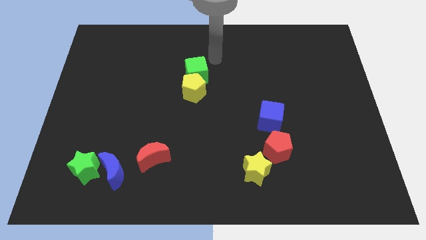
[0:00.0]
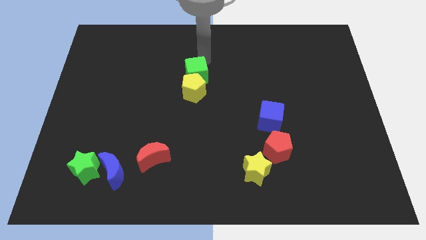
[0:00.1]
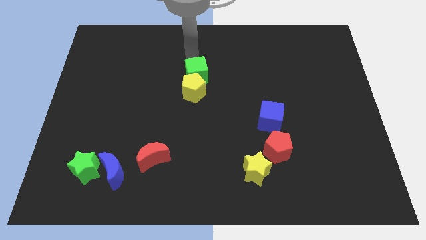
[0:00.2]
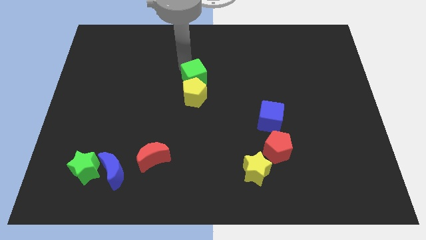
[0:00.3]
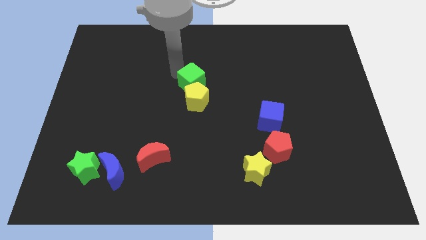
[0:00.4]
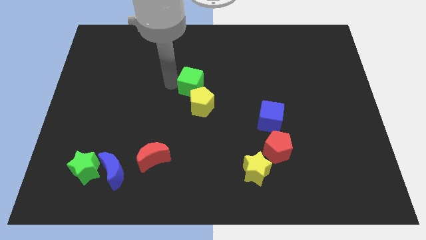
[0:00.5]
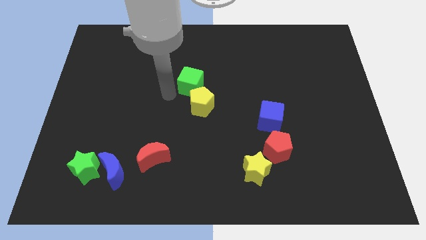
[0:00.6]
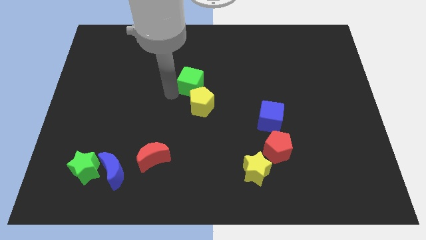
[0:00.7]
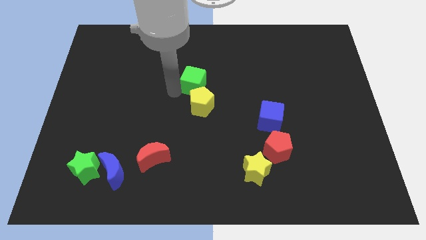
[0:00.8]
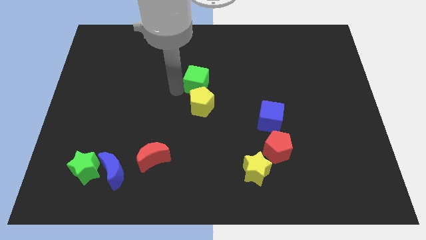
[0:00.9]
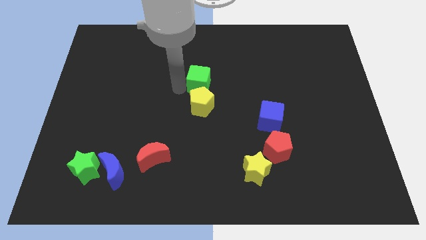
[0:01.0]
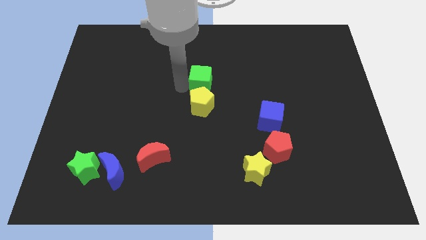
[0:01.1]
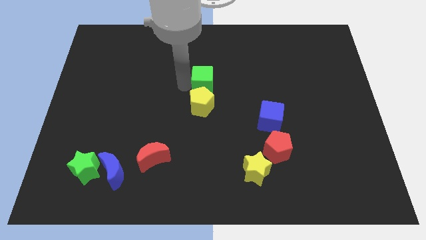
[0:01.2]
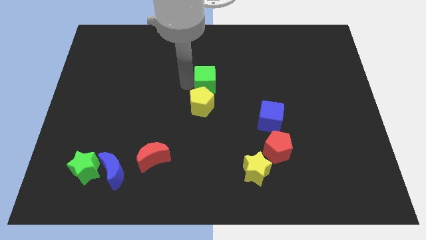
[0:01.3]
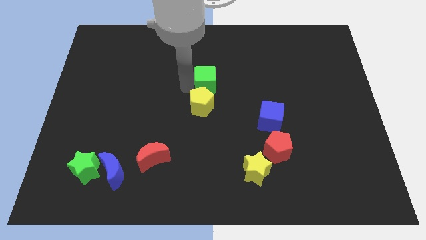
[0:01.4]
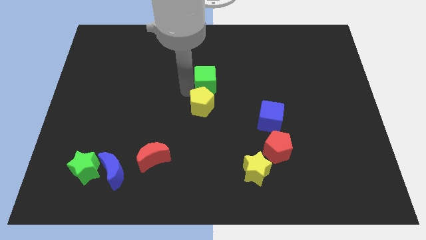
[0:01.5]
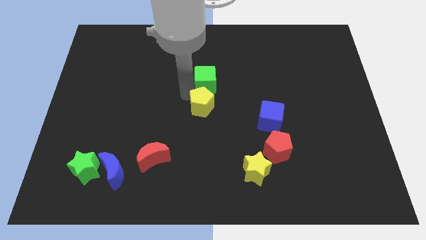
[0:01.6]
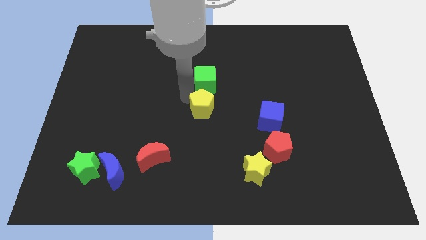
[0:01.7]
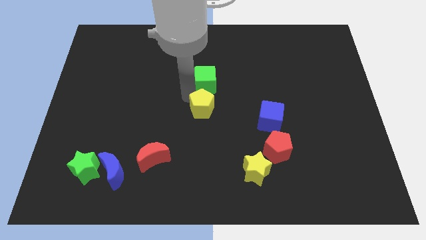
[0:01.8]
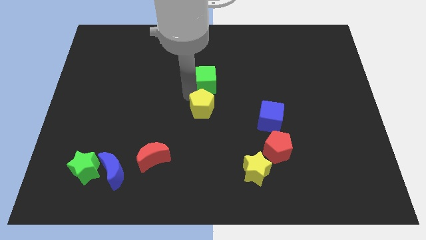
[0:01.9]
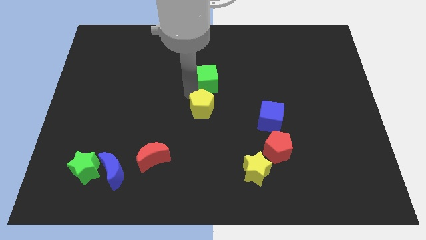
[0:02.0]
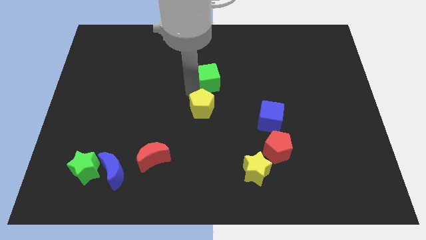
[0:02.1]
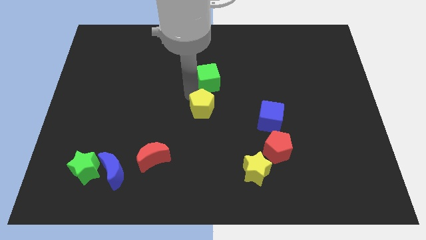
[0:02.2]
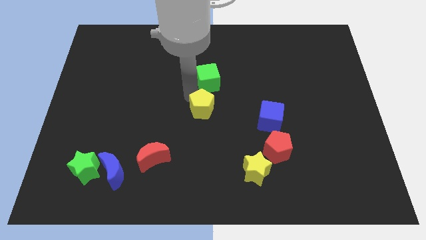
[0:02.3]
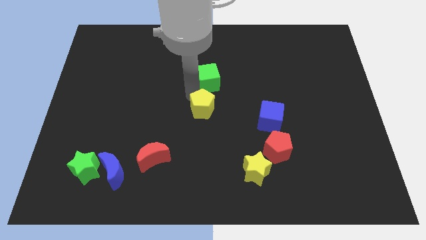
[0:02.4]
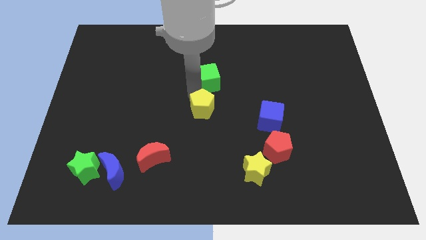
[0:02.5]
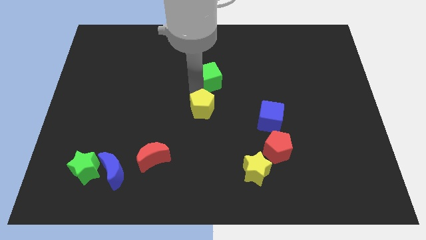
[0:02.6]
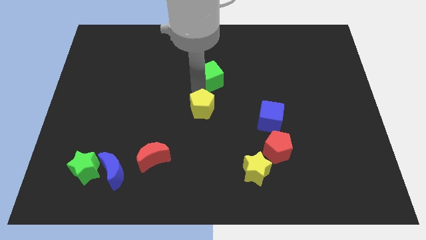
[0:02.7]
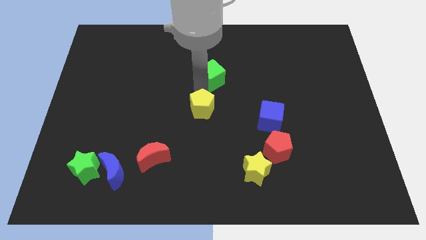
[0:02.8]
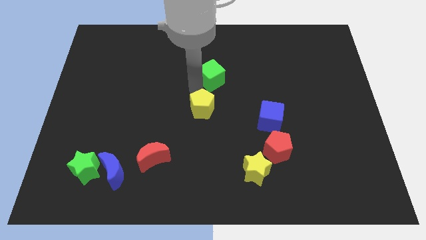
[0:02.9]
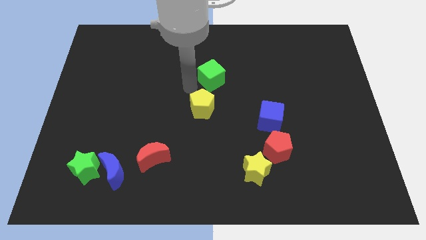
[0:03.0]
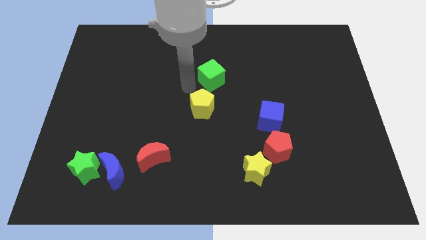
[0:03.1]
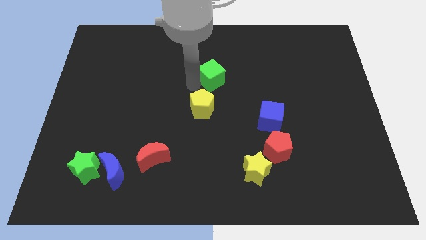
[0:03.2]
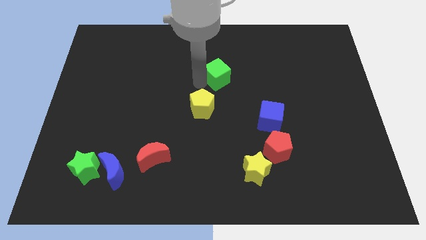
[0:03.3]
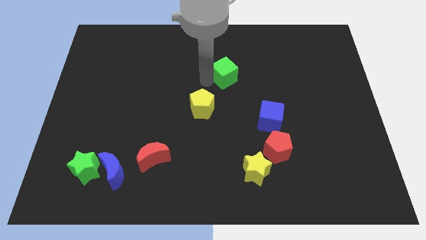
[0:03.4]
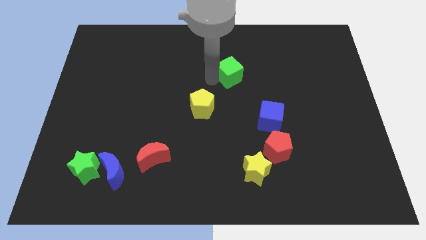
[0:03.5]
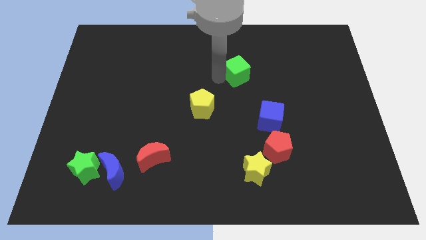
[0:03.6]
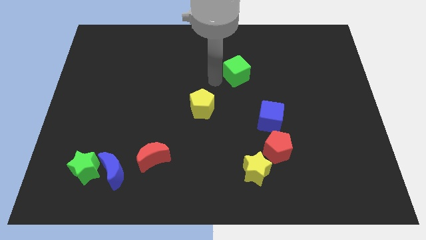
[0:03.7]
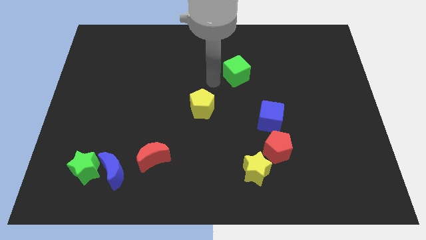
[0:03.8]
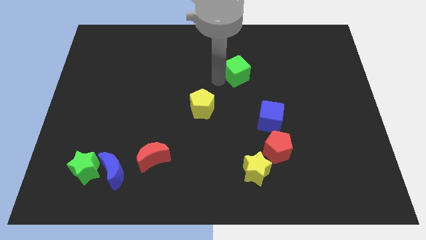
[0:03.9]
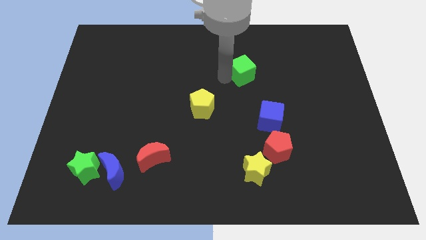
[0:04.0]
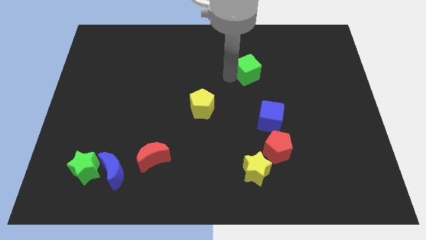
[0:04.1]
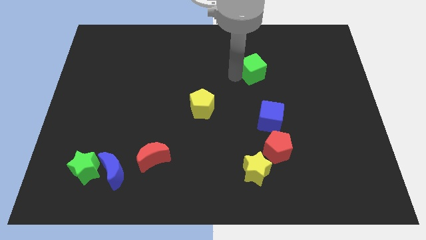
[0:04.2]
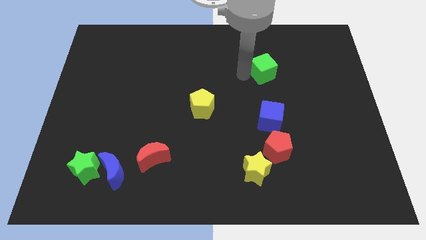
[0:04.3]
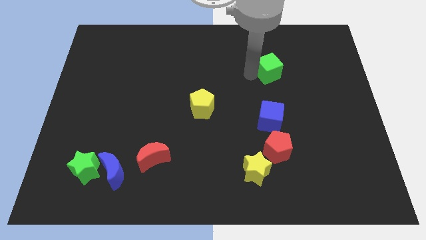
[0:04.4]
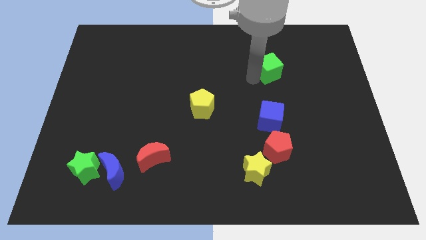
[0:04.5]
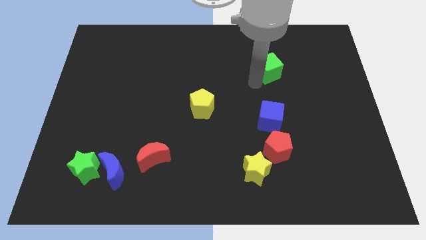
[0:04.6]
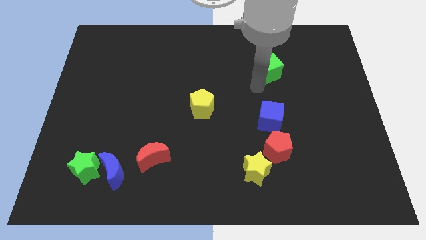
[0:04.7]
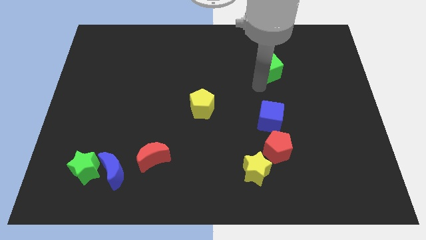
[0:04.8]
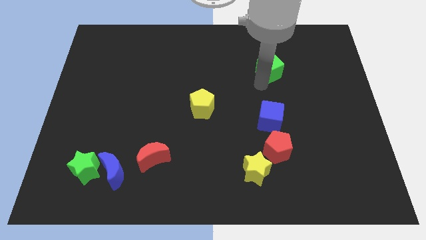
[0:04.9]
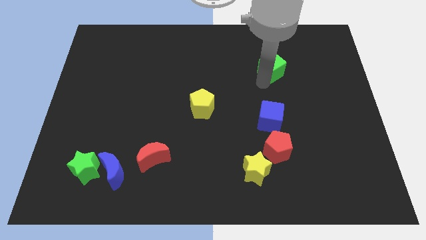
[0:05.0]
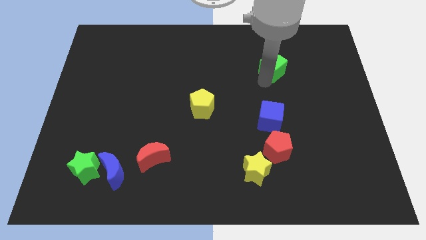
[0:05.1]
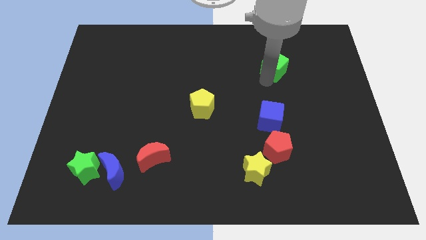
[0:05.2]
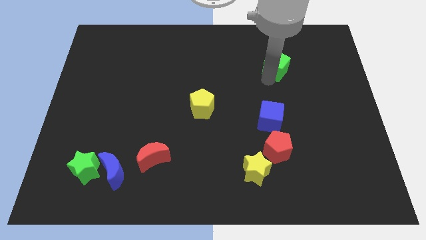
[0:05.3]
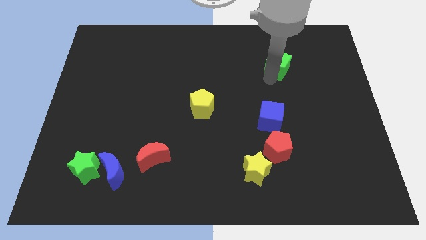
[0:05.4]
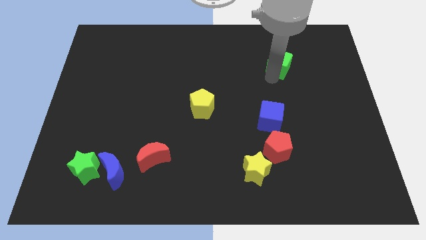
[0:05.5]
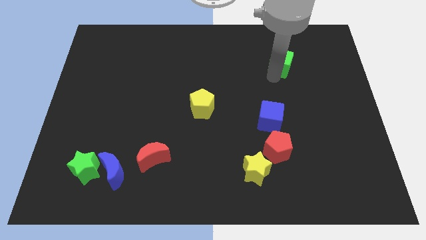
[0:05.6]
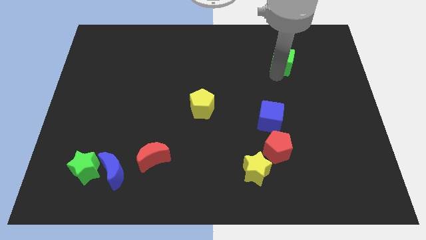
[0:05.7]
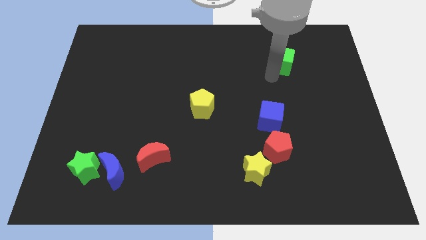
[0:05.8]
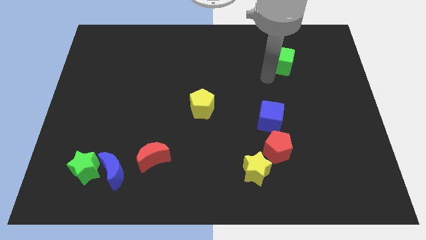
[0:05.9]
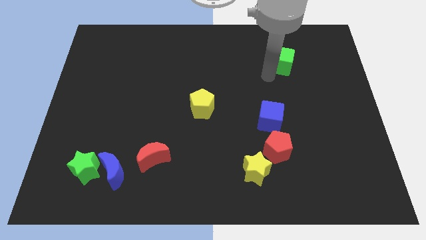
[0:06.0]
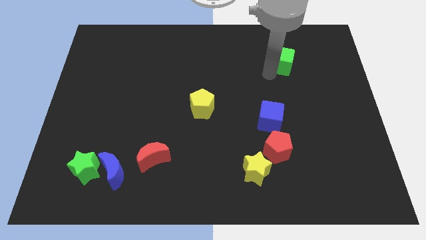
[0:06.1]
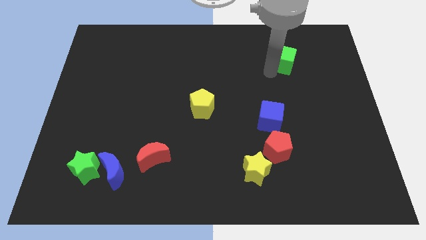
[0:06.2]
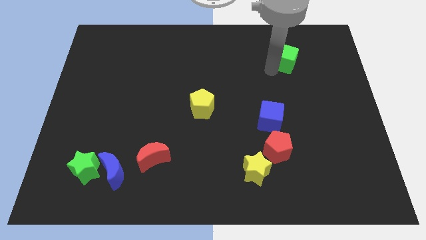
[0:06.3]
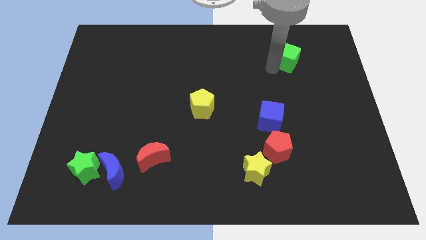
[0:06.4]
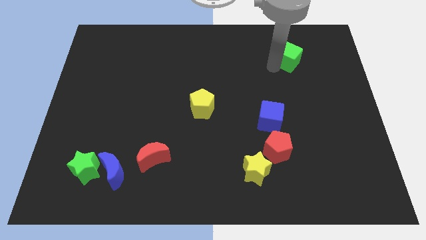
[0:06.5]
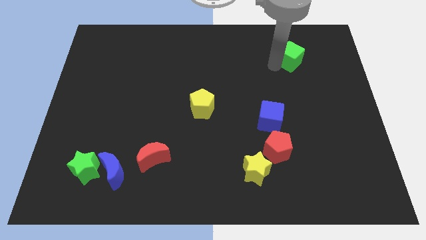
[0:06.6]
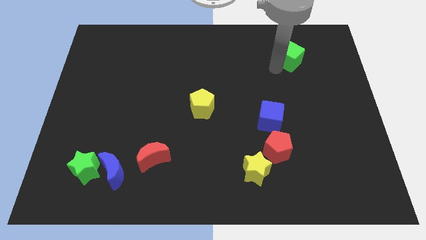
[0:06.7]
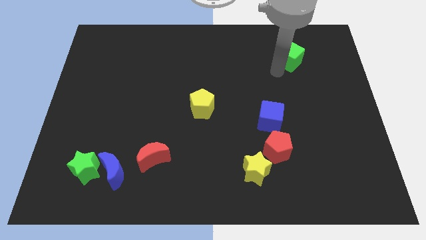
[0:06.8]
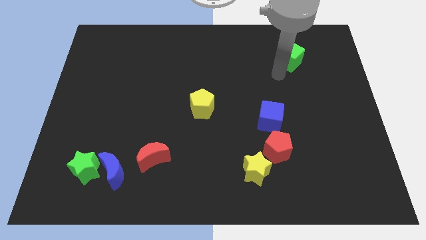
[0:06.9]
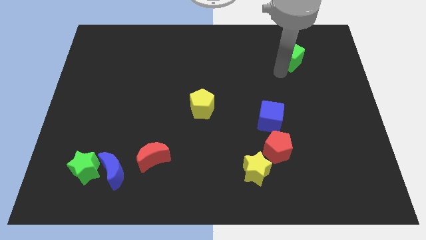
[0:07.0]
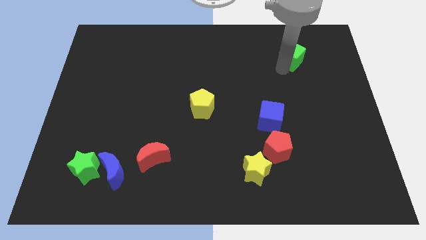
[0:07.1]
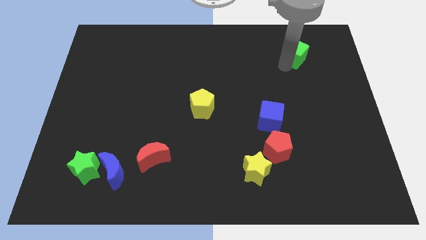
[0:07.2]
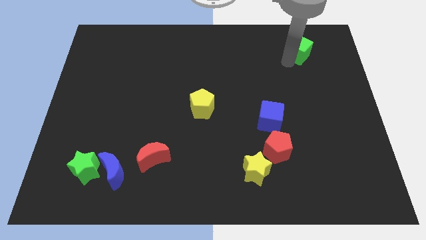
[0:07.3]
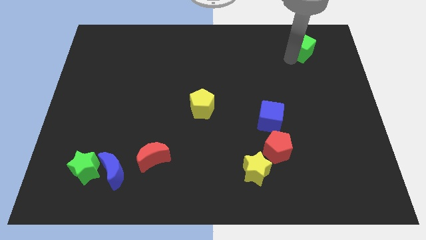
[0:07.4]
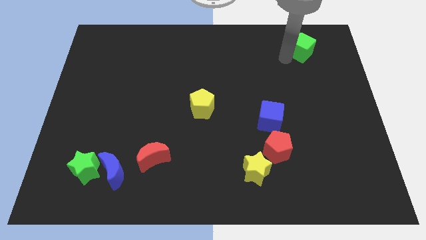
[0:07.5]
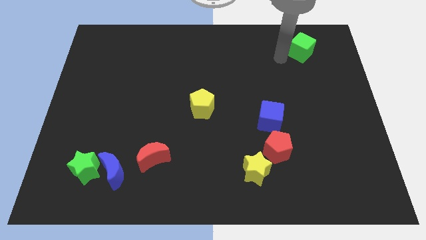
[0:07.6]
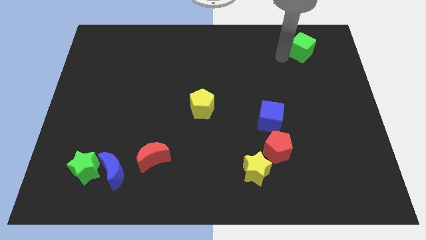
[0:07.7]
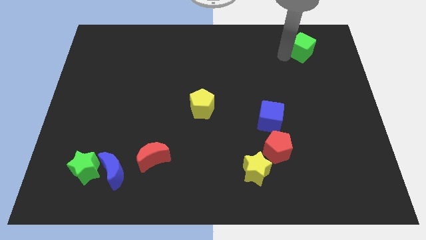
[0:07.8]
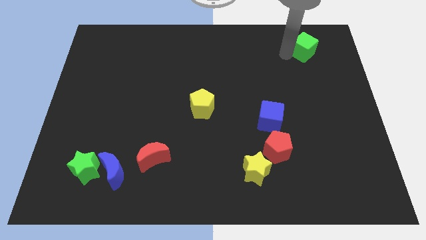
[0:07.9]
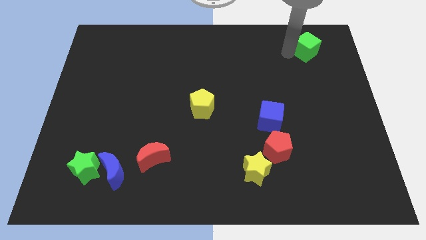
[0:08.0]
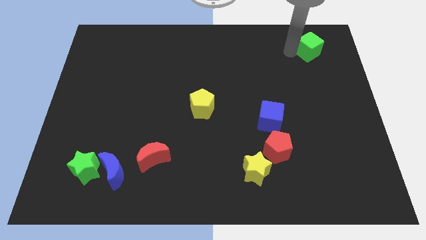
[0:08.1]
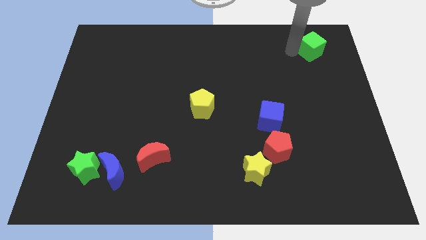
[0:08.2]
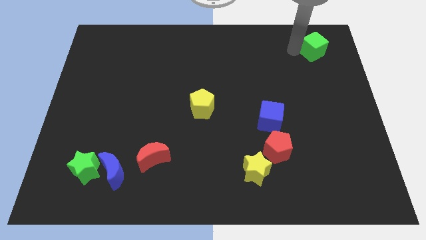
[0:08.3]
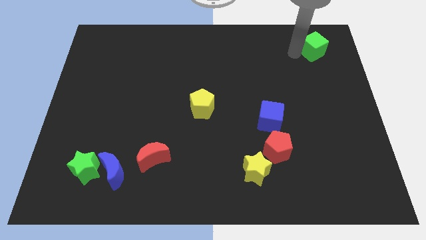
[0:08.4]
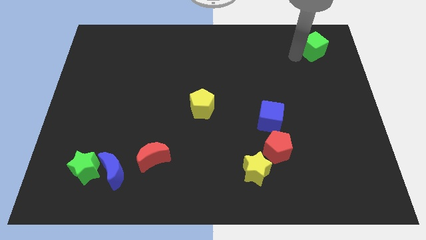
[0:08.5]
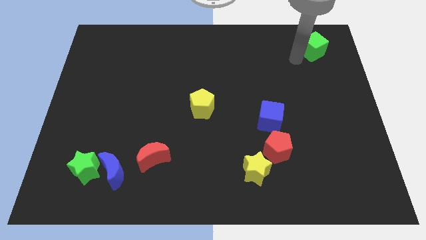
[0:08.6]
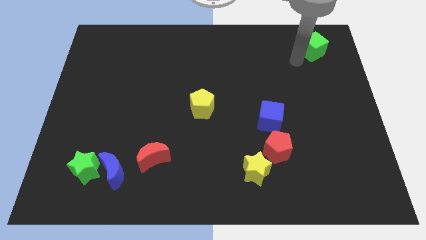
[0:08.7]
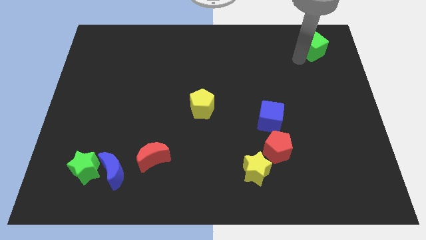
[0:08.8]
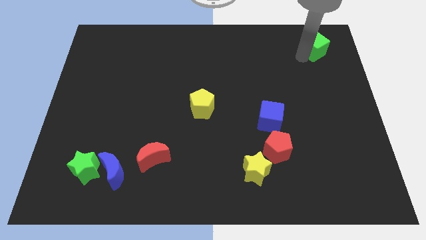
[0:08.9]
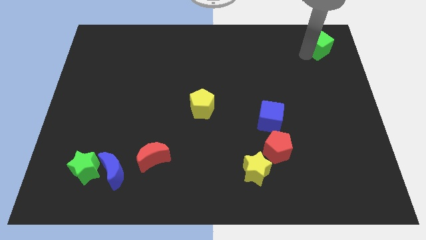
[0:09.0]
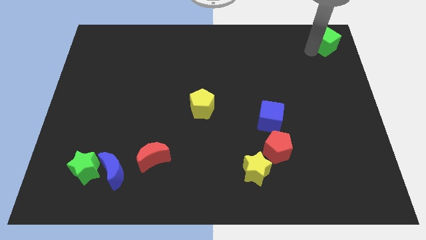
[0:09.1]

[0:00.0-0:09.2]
put the green cube to the upper right corner
